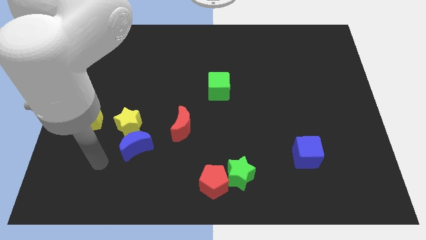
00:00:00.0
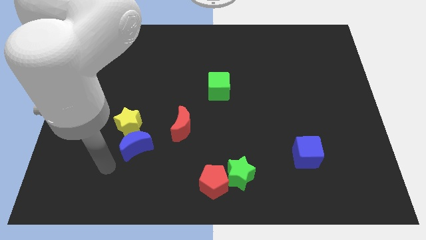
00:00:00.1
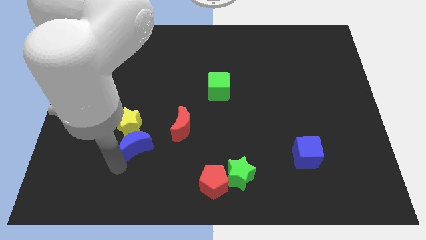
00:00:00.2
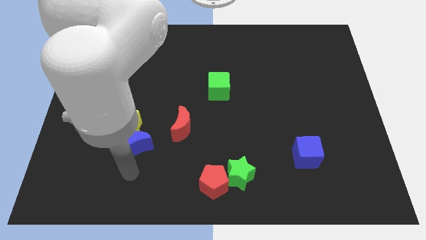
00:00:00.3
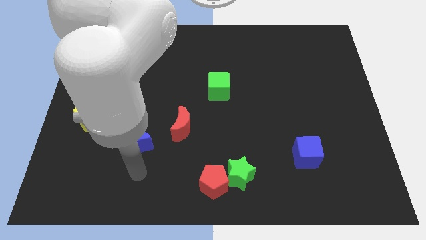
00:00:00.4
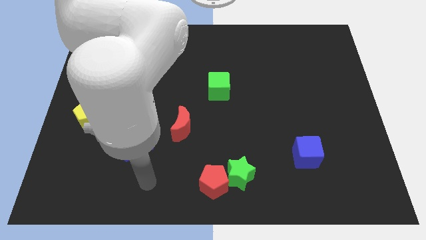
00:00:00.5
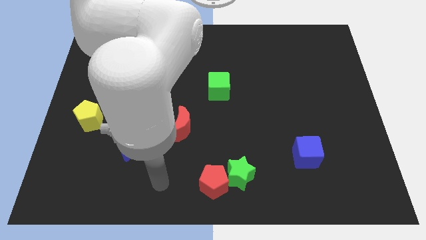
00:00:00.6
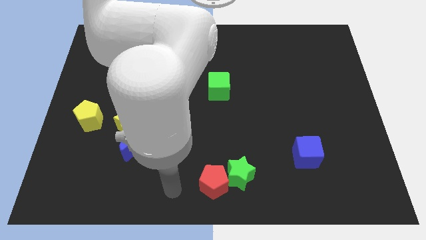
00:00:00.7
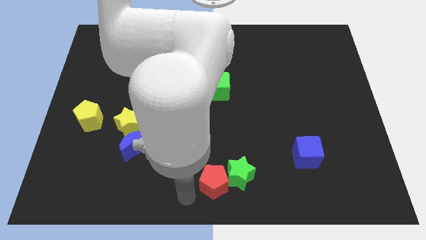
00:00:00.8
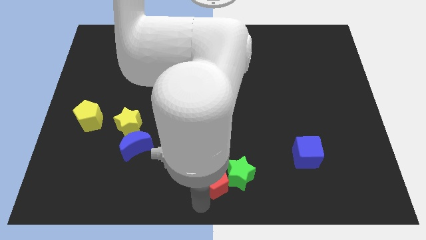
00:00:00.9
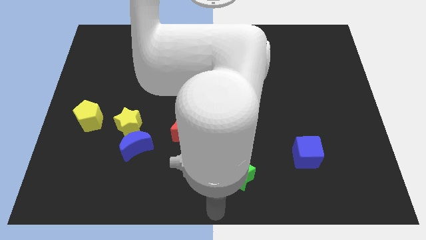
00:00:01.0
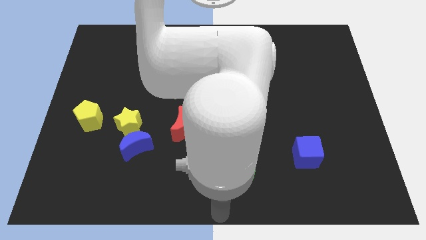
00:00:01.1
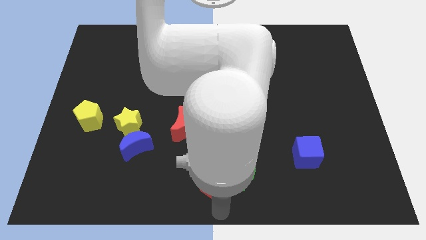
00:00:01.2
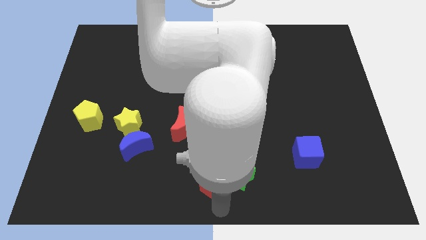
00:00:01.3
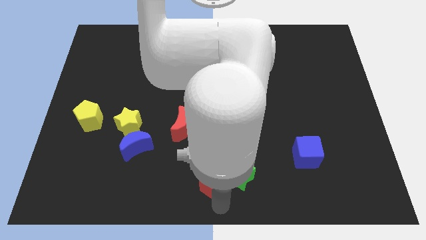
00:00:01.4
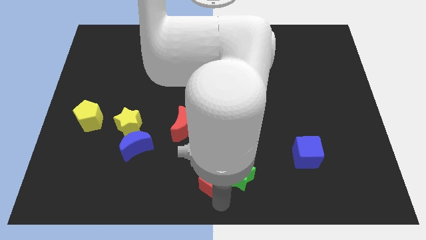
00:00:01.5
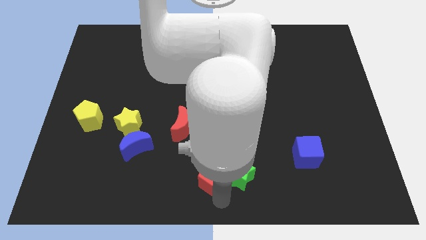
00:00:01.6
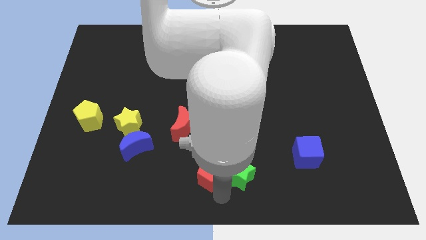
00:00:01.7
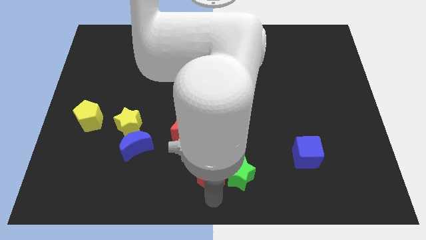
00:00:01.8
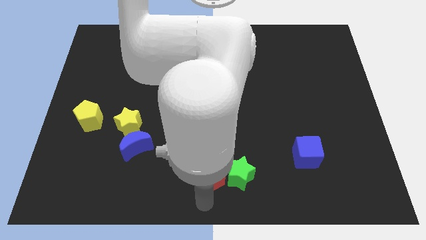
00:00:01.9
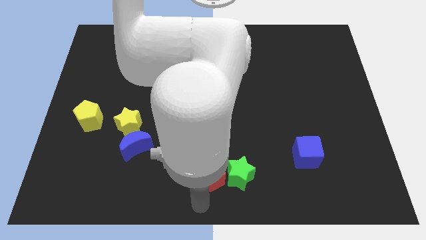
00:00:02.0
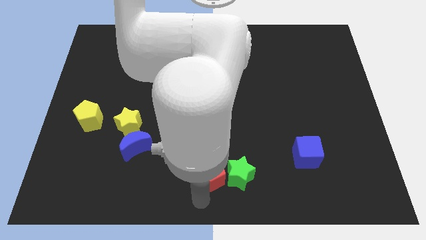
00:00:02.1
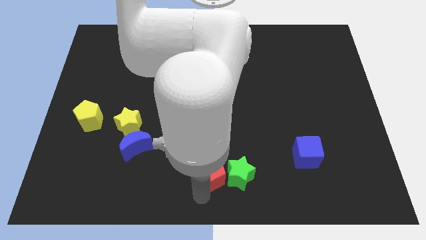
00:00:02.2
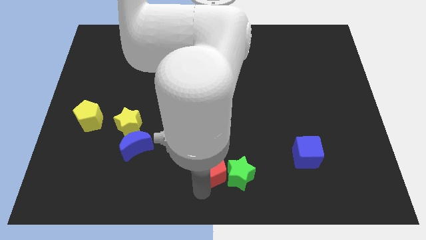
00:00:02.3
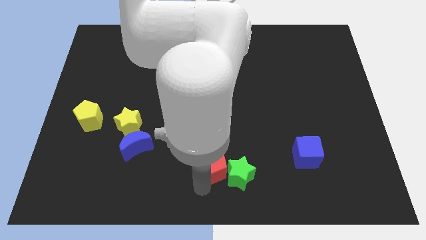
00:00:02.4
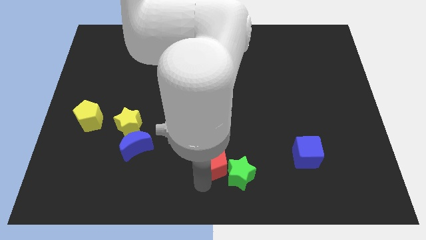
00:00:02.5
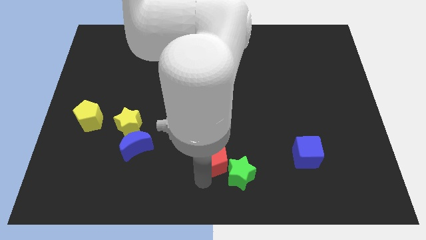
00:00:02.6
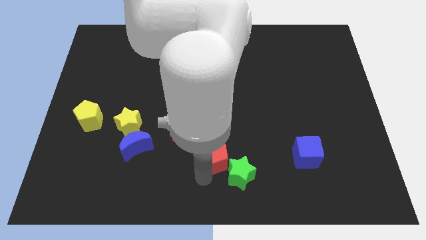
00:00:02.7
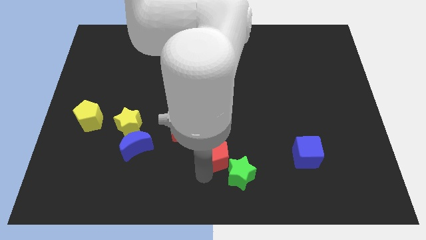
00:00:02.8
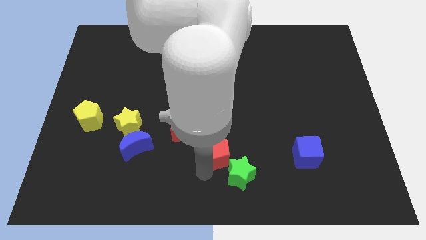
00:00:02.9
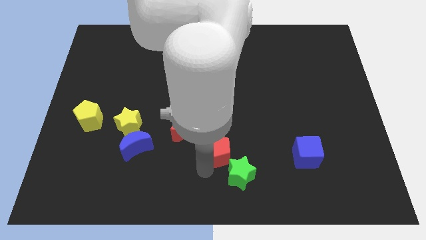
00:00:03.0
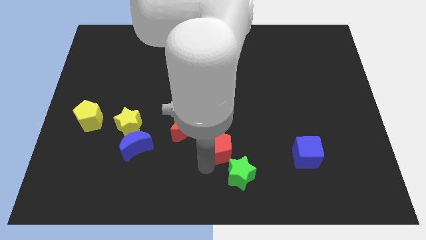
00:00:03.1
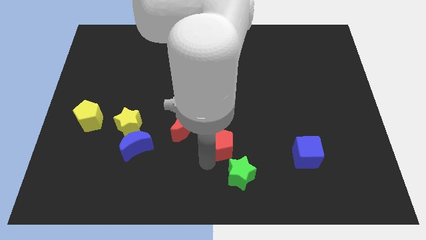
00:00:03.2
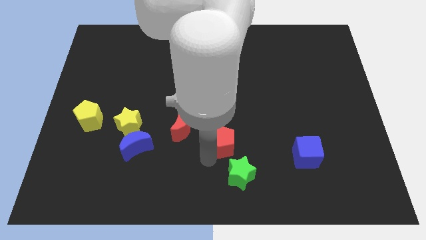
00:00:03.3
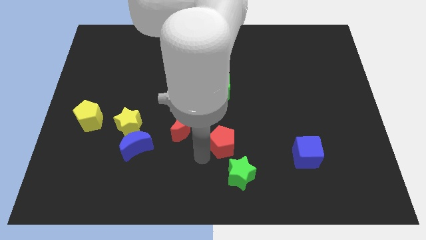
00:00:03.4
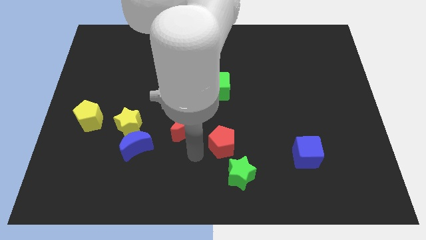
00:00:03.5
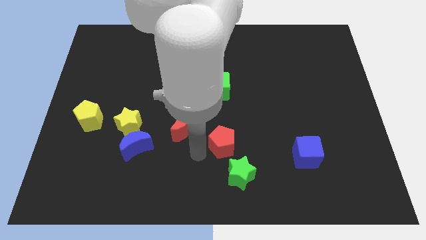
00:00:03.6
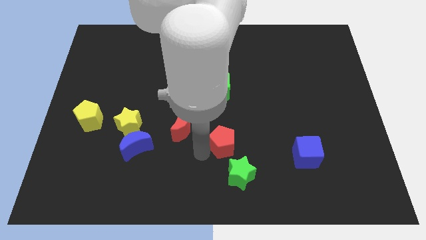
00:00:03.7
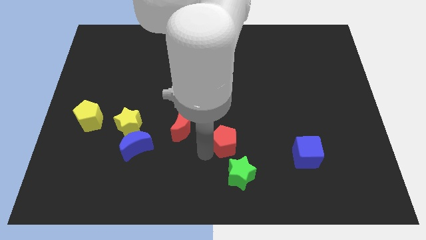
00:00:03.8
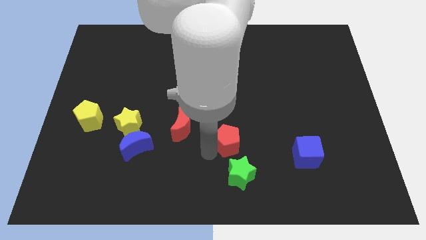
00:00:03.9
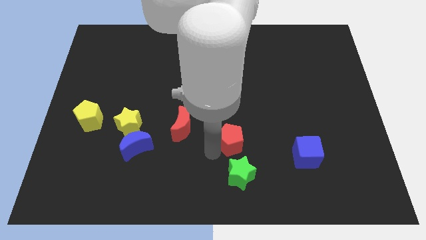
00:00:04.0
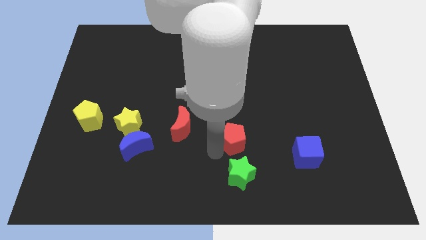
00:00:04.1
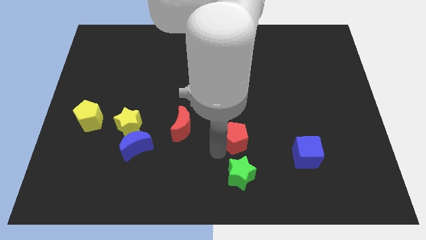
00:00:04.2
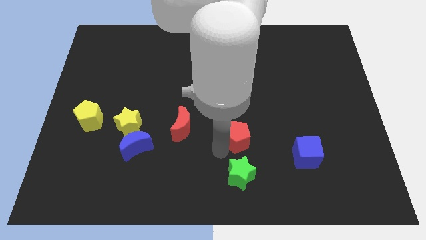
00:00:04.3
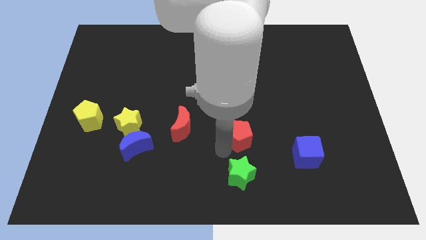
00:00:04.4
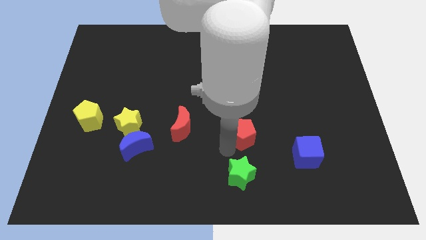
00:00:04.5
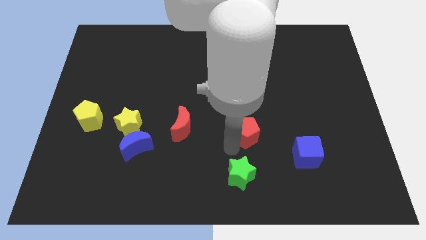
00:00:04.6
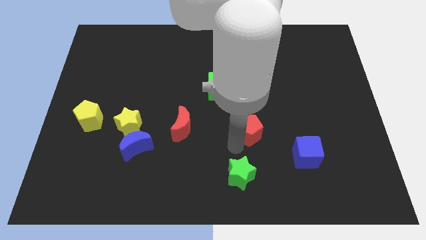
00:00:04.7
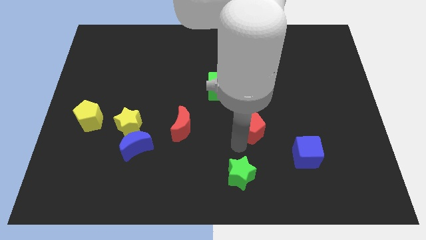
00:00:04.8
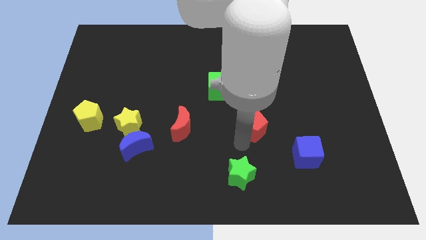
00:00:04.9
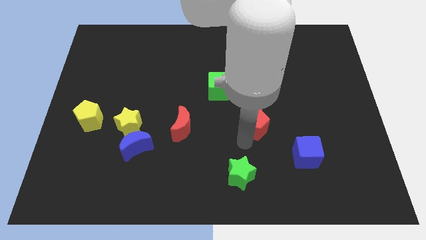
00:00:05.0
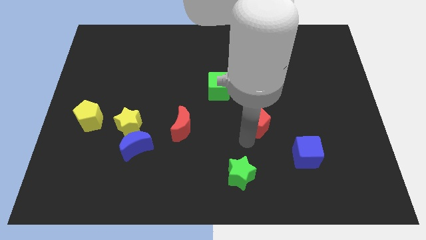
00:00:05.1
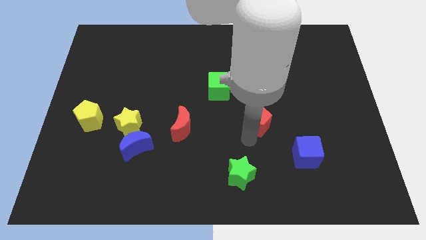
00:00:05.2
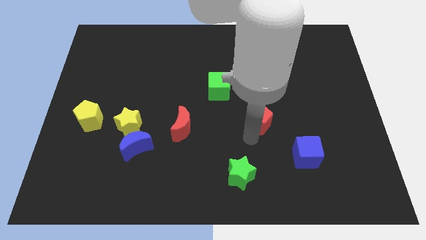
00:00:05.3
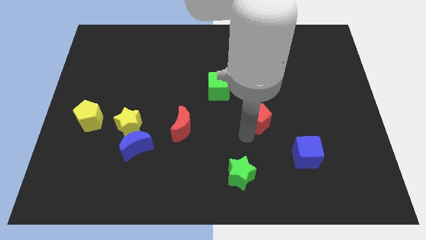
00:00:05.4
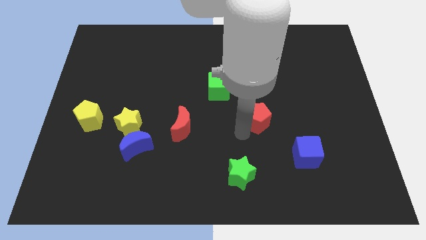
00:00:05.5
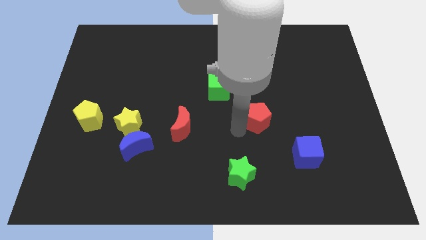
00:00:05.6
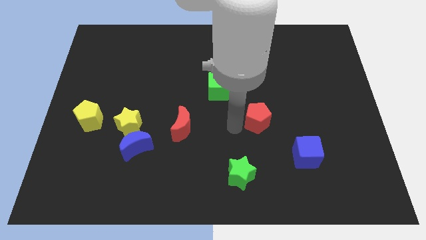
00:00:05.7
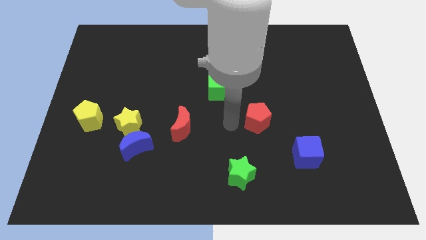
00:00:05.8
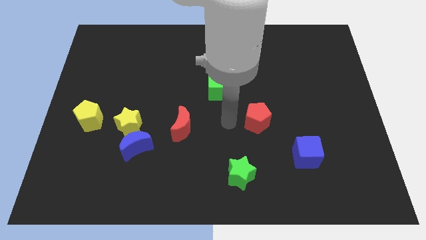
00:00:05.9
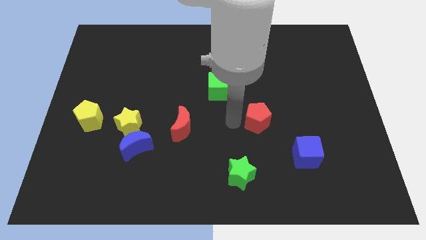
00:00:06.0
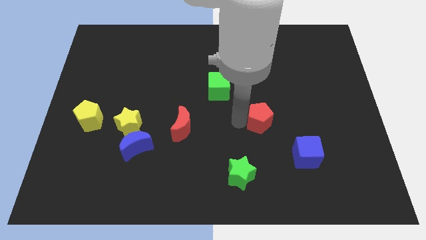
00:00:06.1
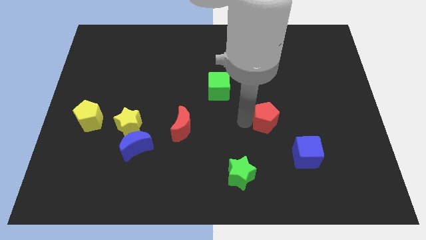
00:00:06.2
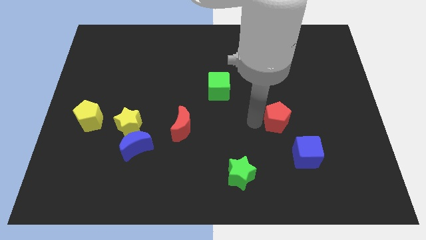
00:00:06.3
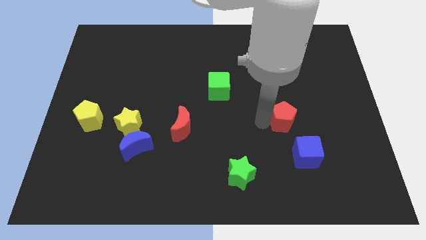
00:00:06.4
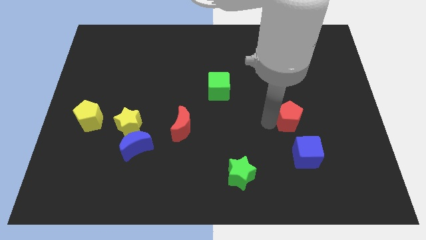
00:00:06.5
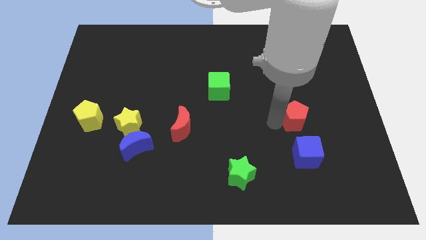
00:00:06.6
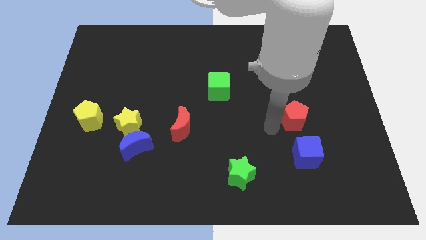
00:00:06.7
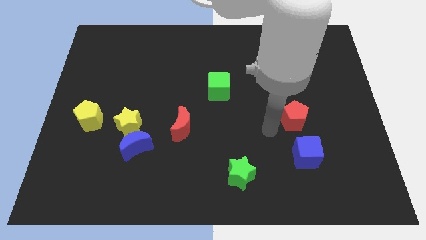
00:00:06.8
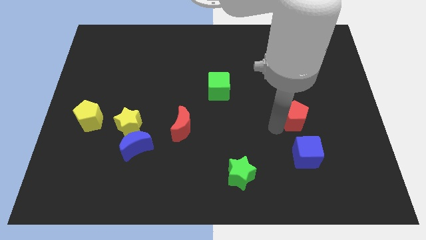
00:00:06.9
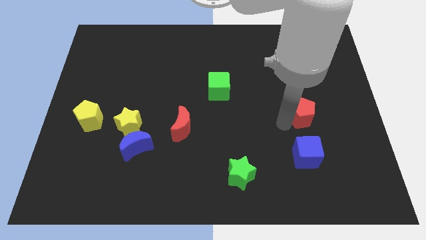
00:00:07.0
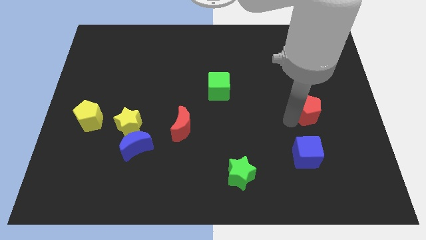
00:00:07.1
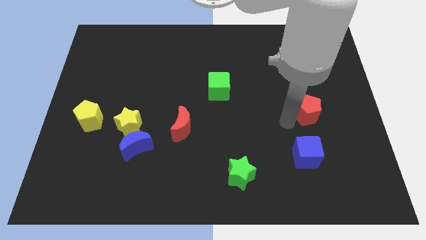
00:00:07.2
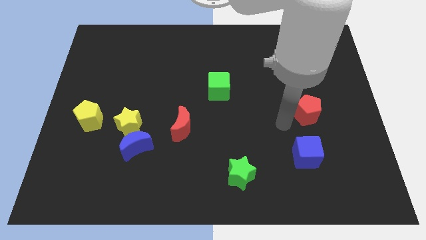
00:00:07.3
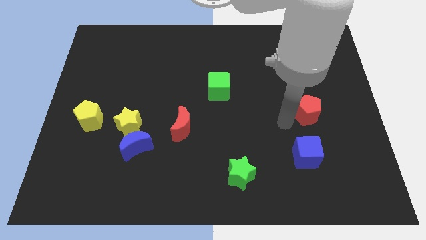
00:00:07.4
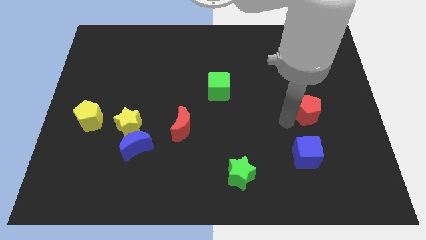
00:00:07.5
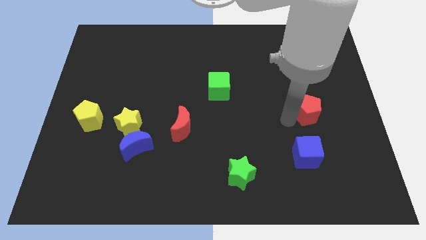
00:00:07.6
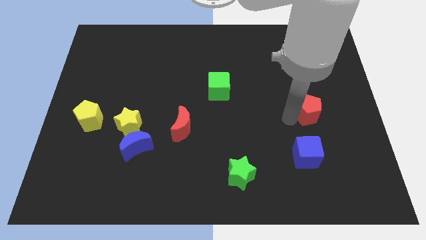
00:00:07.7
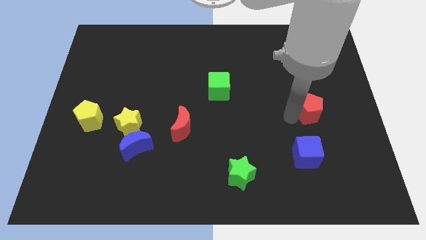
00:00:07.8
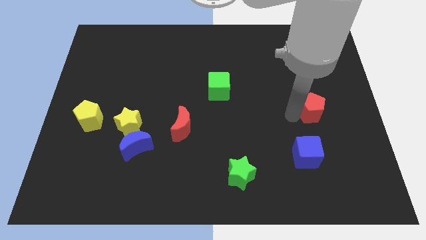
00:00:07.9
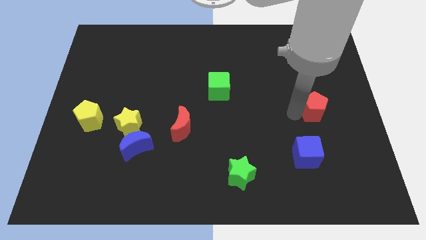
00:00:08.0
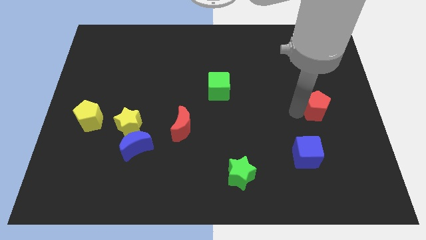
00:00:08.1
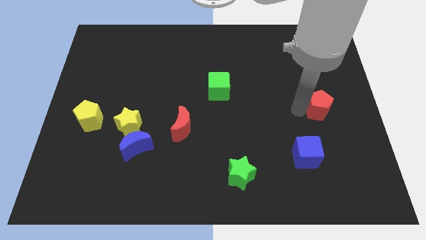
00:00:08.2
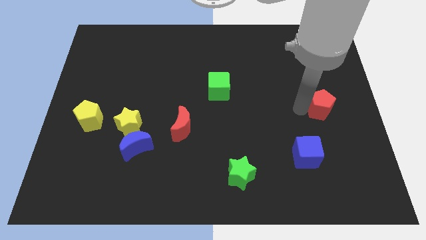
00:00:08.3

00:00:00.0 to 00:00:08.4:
slide the red pentagon to the right side of the board
